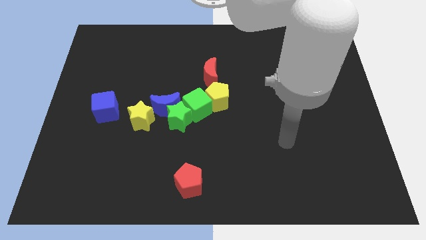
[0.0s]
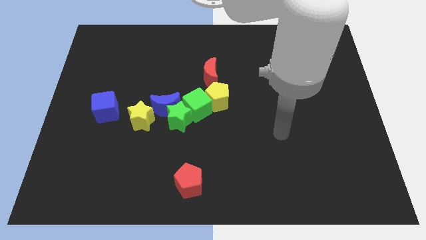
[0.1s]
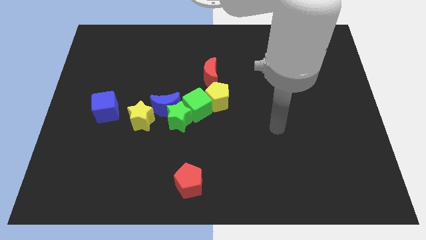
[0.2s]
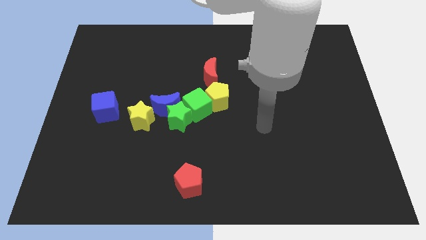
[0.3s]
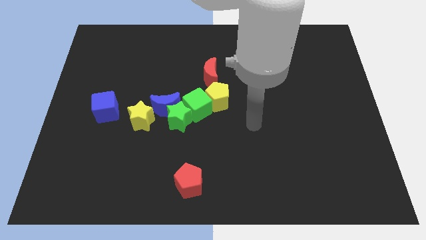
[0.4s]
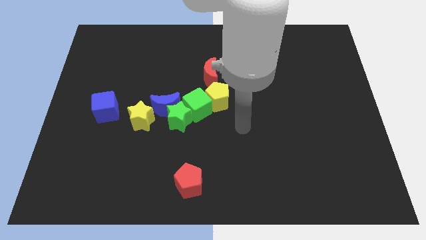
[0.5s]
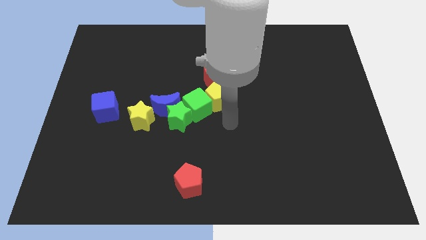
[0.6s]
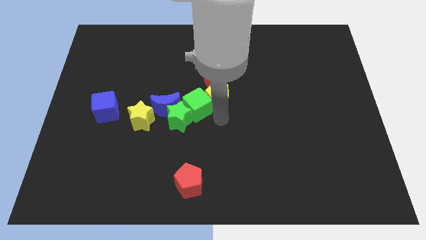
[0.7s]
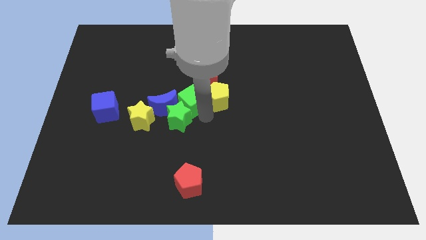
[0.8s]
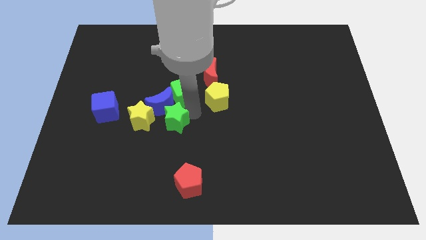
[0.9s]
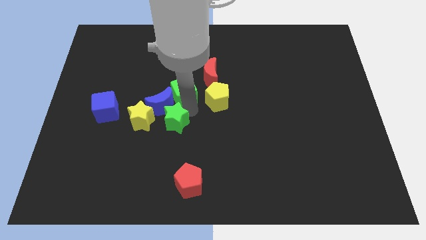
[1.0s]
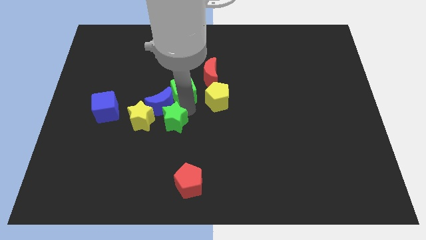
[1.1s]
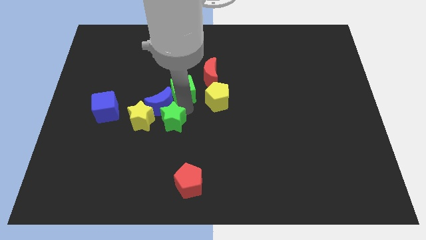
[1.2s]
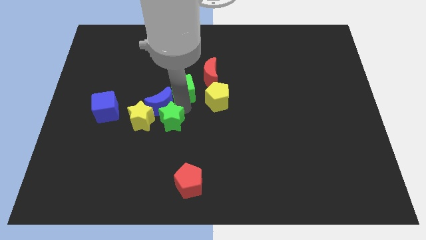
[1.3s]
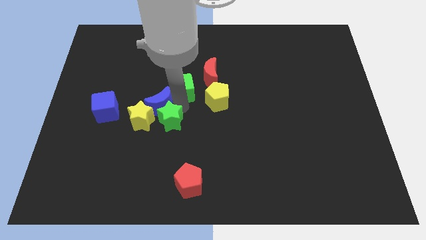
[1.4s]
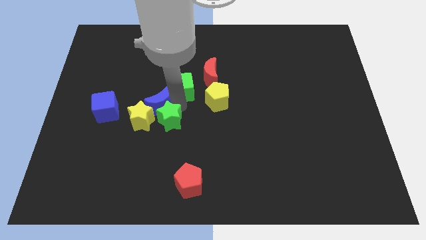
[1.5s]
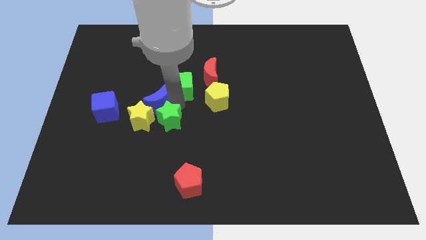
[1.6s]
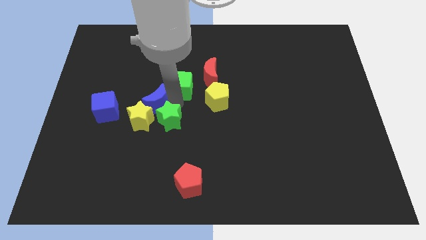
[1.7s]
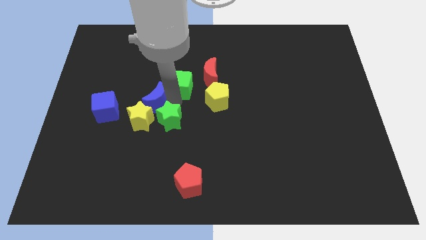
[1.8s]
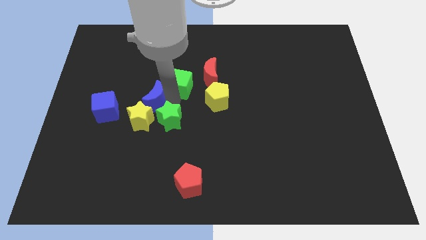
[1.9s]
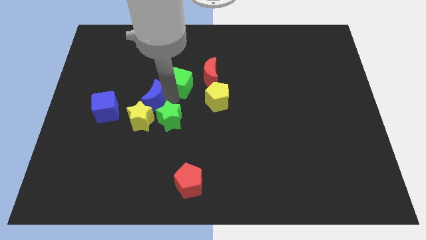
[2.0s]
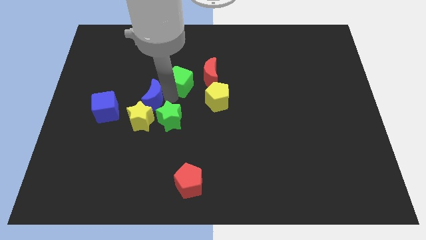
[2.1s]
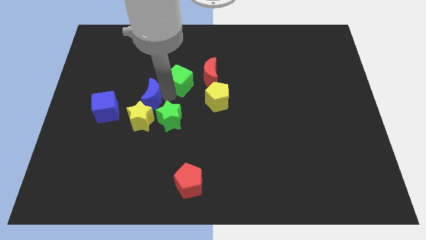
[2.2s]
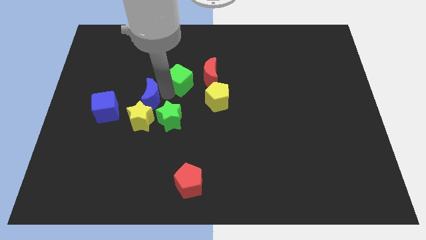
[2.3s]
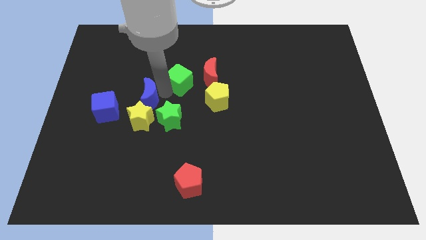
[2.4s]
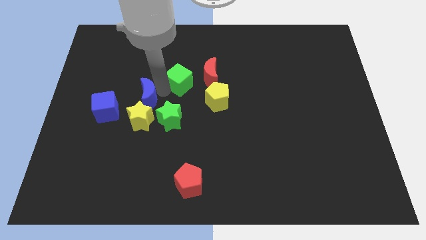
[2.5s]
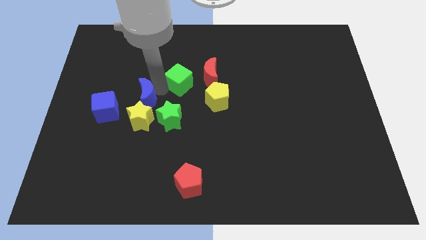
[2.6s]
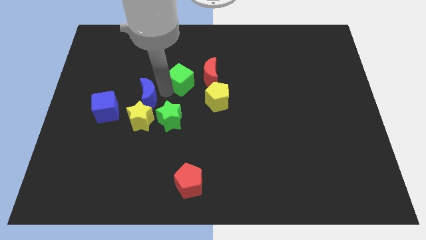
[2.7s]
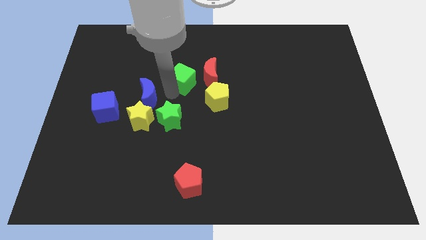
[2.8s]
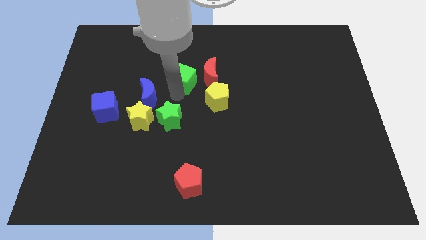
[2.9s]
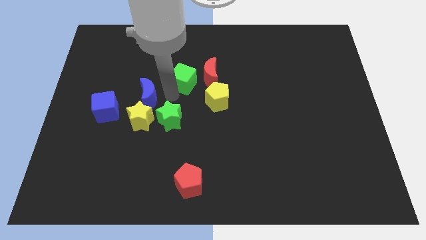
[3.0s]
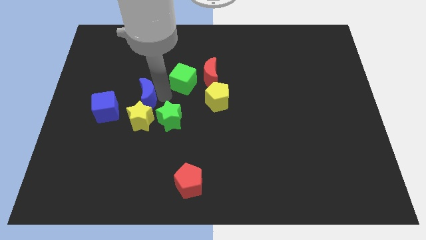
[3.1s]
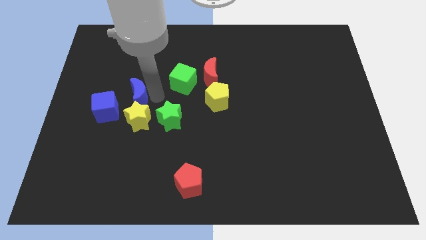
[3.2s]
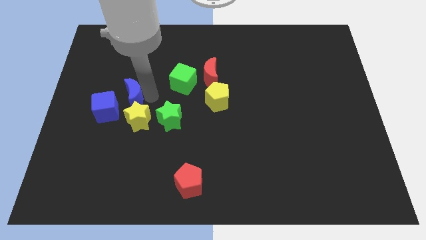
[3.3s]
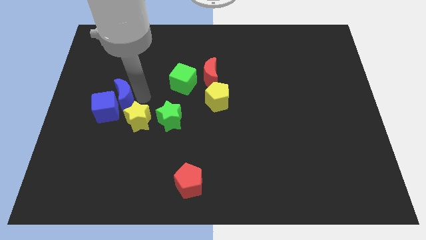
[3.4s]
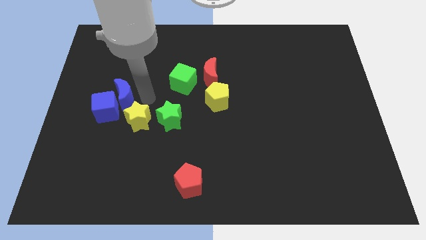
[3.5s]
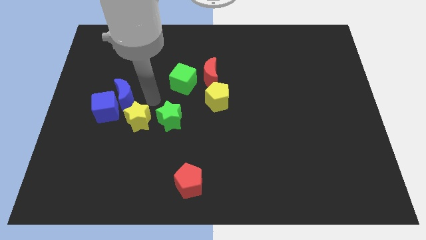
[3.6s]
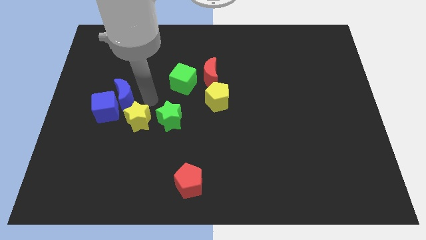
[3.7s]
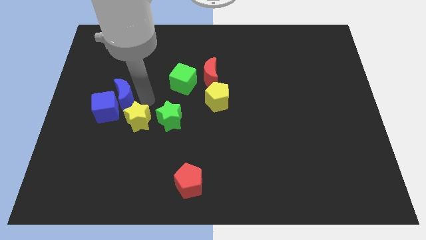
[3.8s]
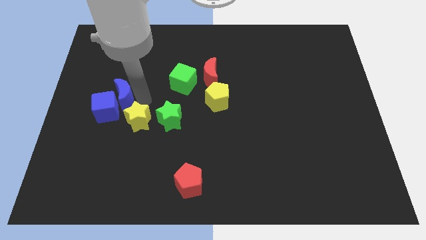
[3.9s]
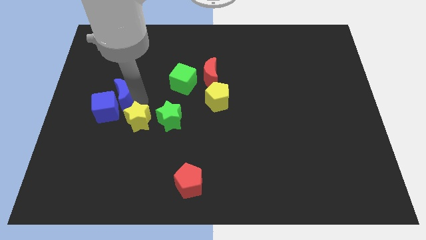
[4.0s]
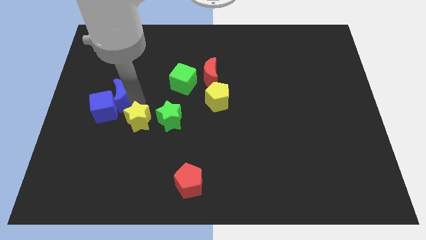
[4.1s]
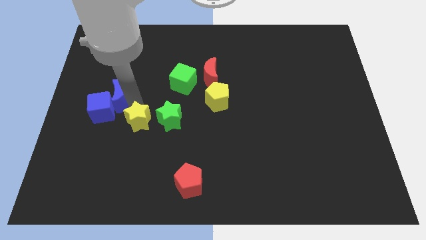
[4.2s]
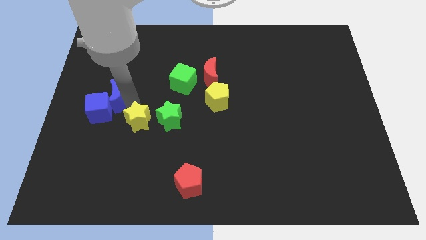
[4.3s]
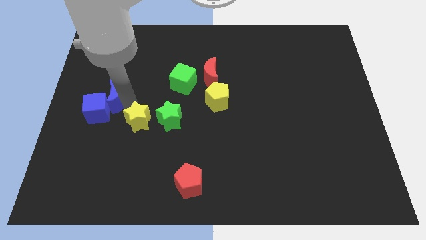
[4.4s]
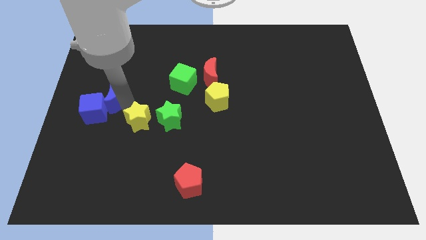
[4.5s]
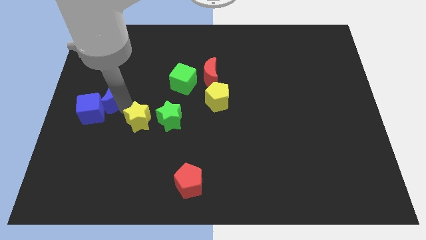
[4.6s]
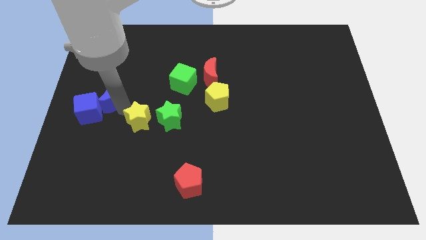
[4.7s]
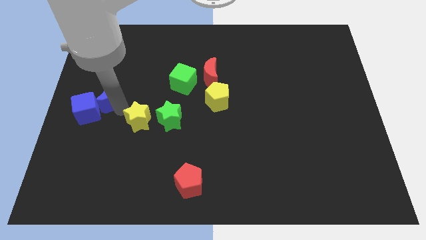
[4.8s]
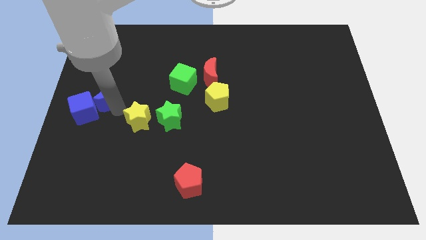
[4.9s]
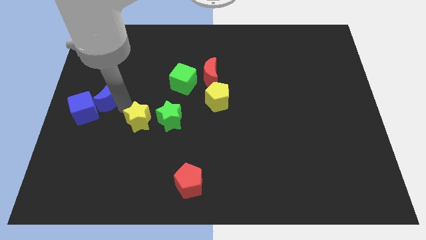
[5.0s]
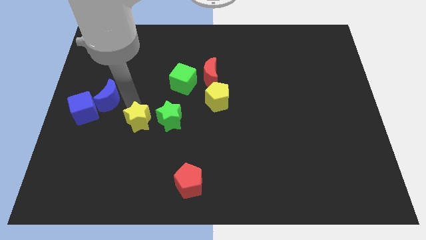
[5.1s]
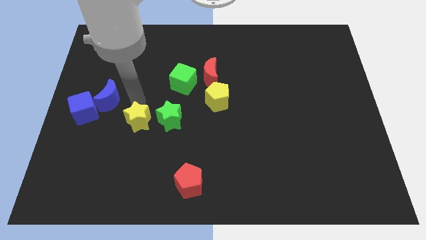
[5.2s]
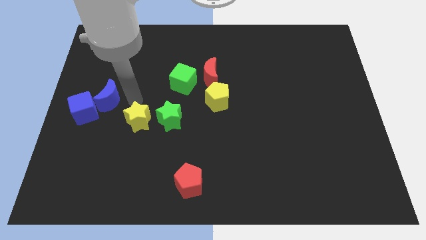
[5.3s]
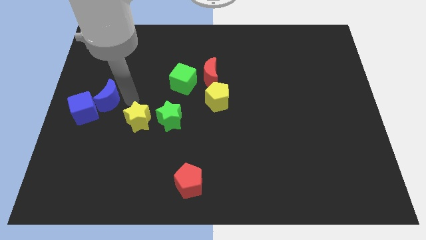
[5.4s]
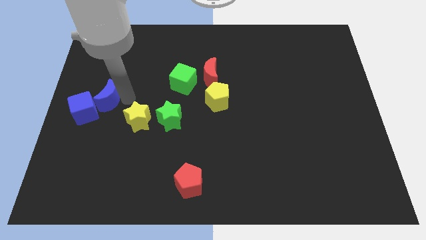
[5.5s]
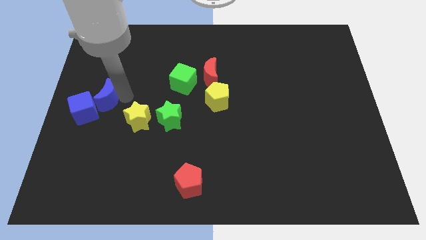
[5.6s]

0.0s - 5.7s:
put the blue moon to the left side

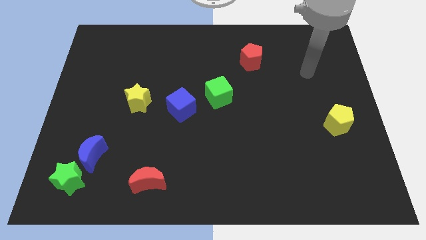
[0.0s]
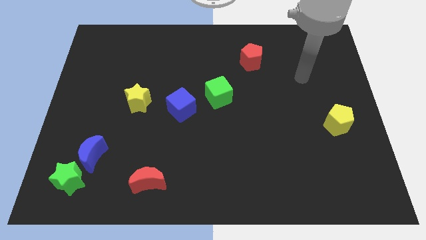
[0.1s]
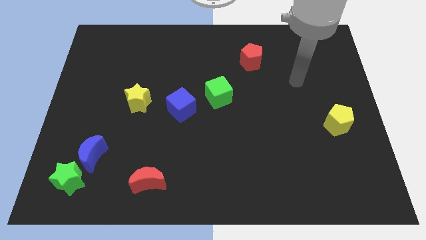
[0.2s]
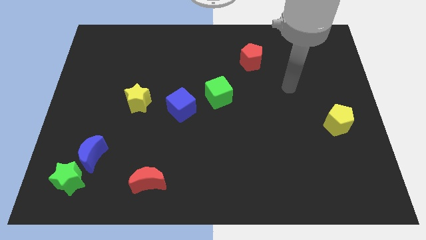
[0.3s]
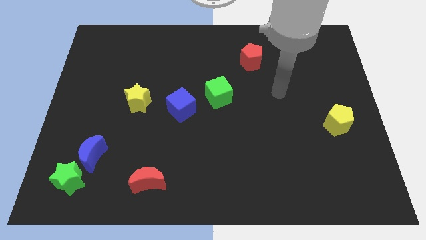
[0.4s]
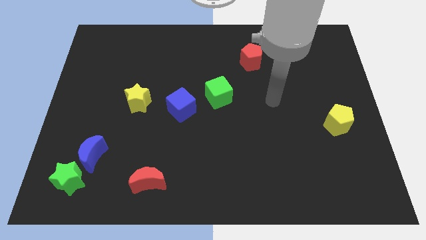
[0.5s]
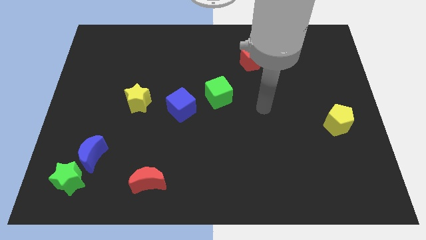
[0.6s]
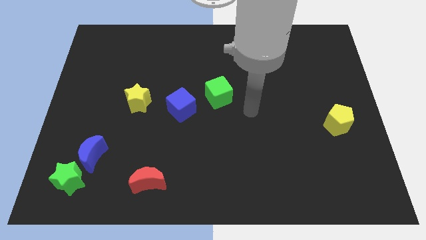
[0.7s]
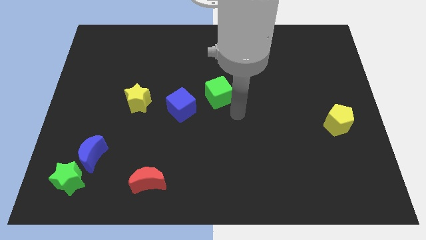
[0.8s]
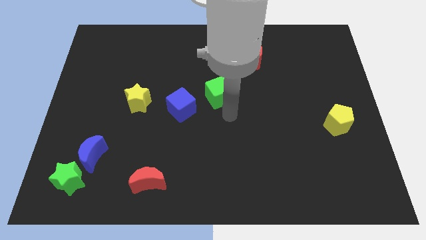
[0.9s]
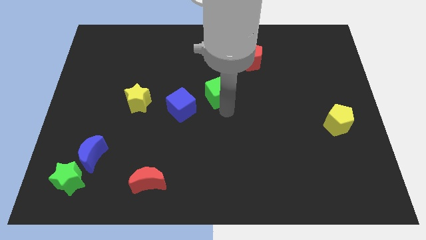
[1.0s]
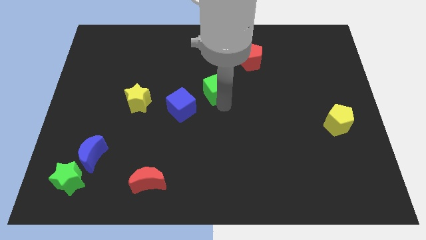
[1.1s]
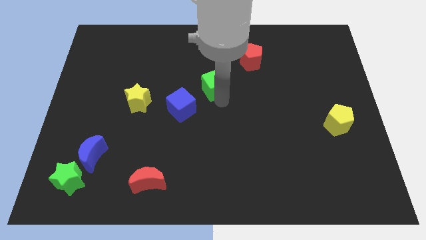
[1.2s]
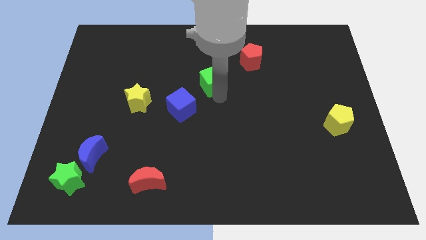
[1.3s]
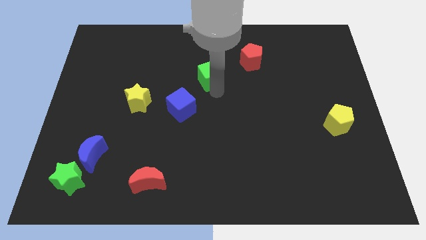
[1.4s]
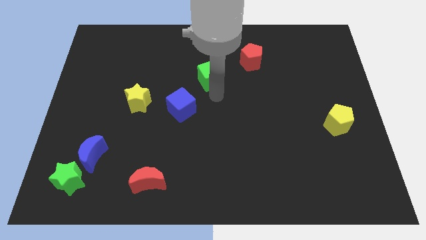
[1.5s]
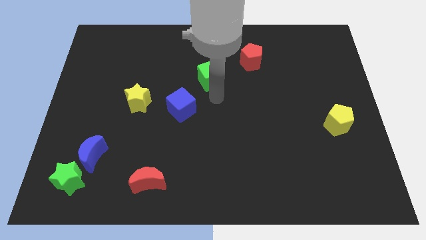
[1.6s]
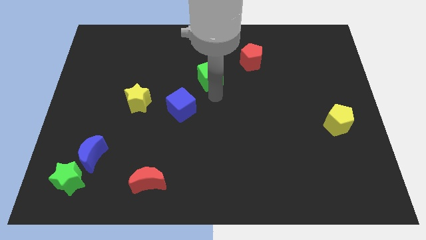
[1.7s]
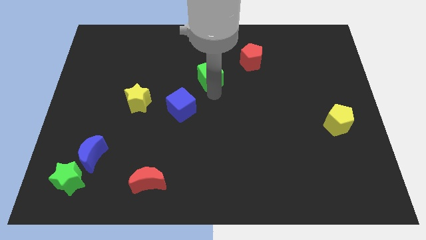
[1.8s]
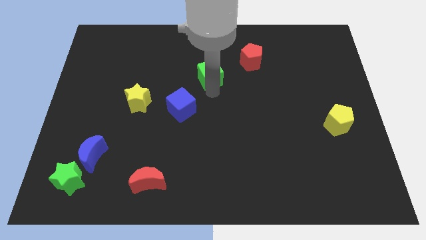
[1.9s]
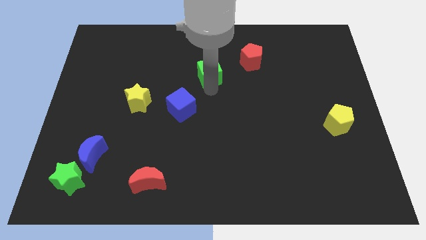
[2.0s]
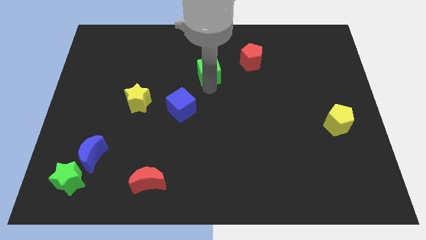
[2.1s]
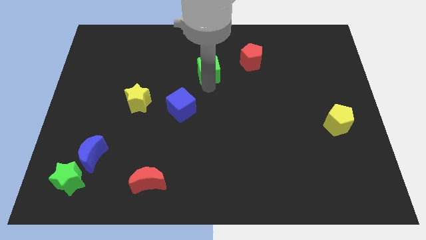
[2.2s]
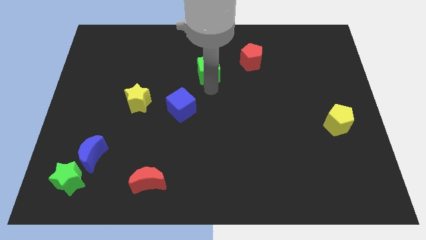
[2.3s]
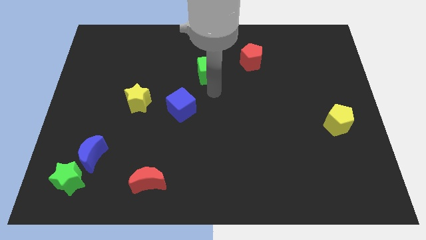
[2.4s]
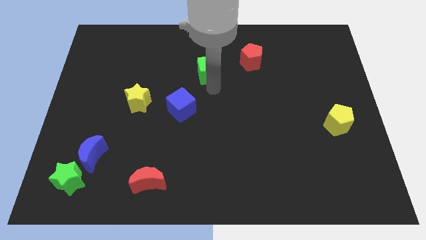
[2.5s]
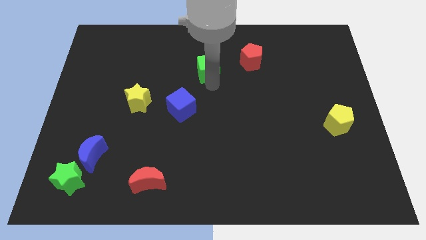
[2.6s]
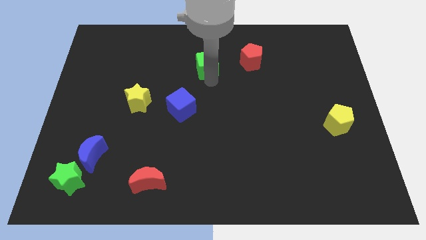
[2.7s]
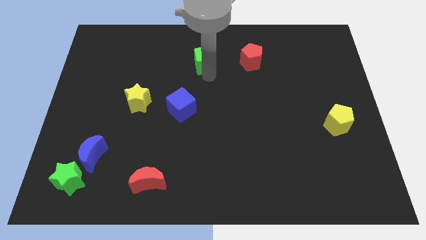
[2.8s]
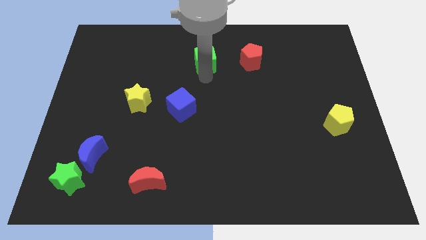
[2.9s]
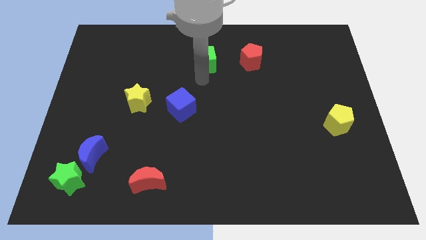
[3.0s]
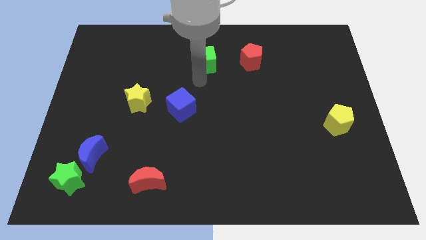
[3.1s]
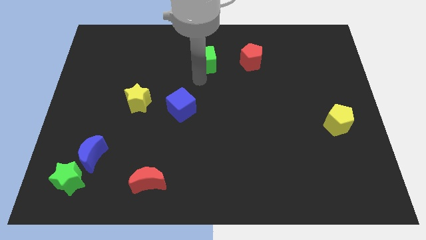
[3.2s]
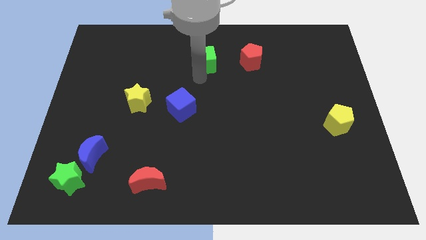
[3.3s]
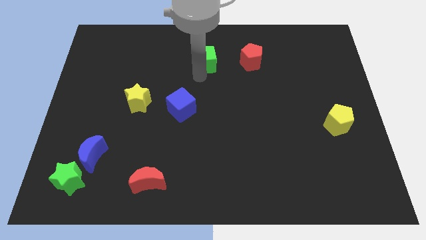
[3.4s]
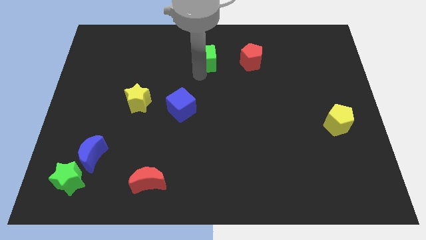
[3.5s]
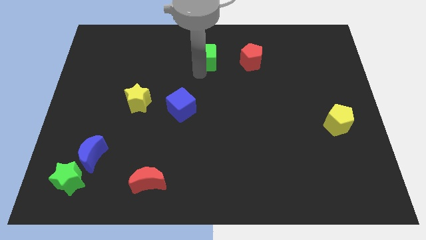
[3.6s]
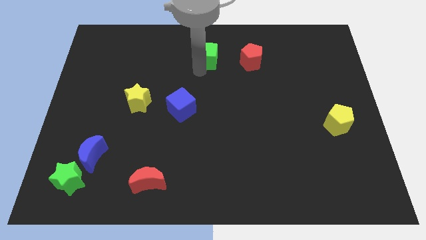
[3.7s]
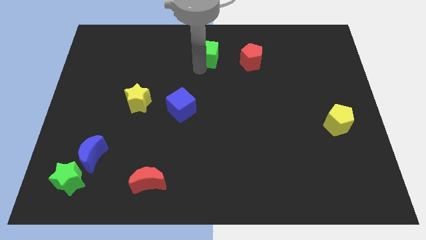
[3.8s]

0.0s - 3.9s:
move the green cube to the top side
